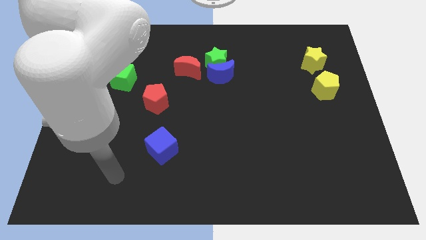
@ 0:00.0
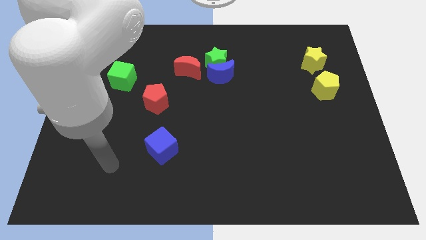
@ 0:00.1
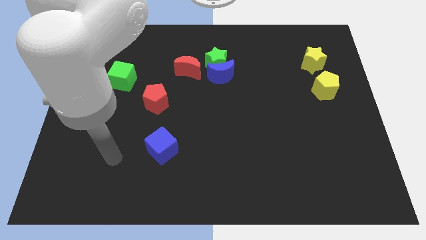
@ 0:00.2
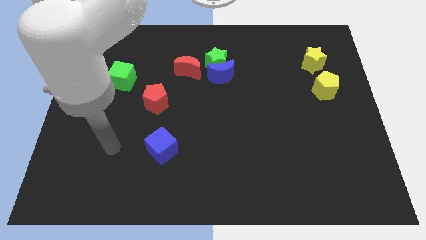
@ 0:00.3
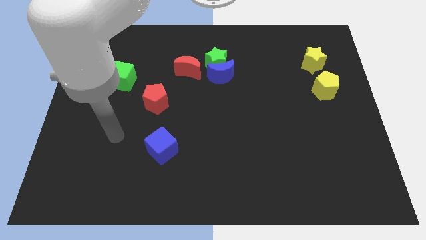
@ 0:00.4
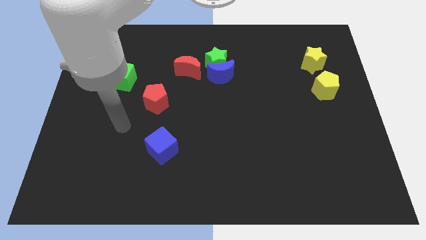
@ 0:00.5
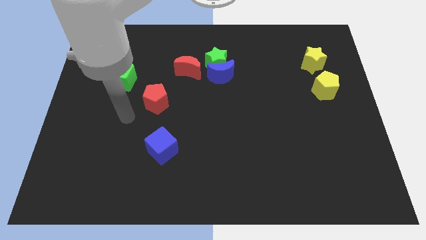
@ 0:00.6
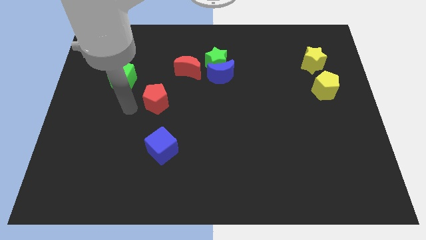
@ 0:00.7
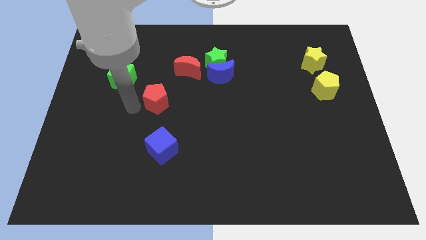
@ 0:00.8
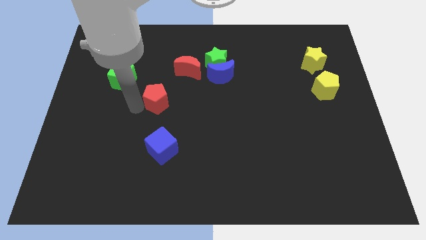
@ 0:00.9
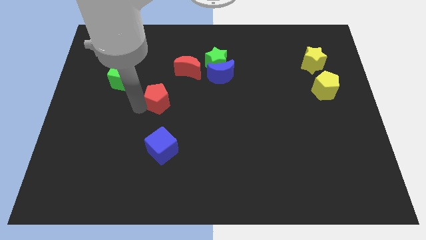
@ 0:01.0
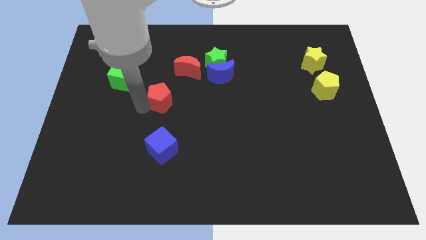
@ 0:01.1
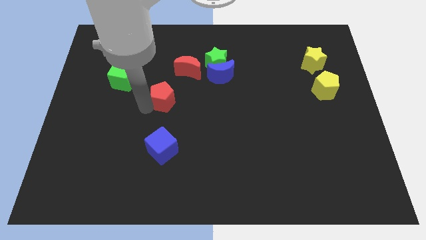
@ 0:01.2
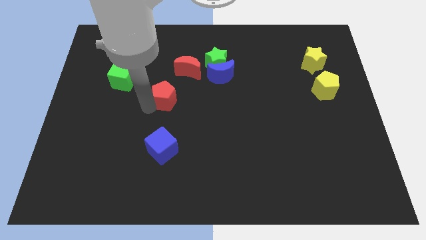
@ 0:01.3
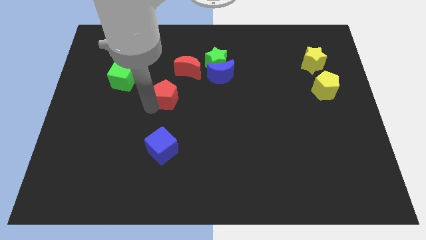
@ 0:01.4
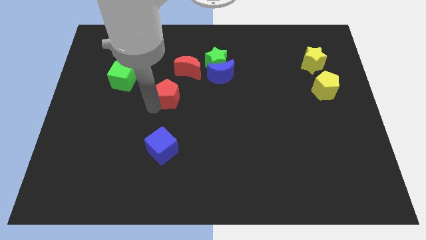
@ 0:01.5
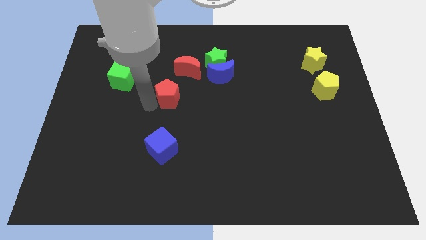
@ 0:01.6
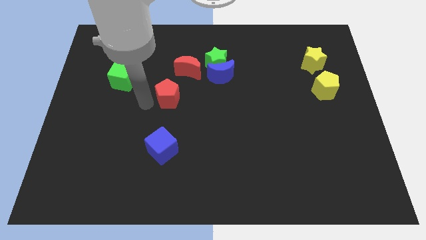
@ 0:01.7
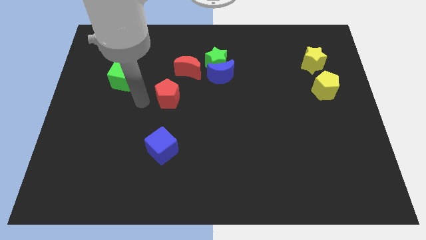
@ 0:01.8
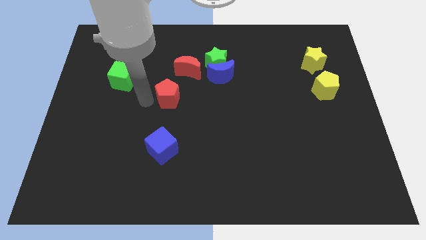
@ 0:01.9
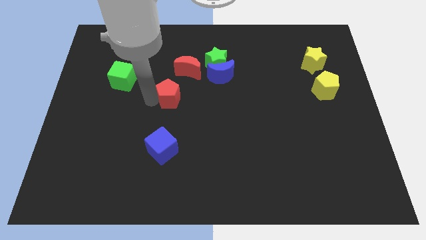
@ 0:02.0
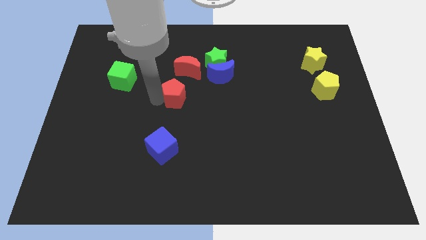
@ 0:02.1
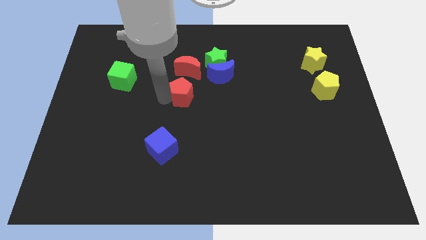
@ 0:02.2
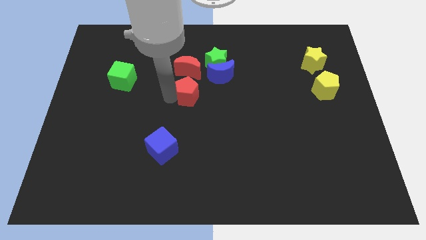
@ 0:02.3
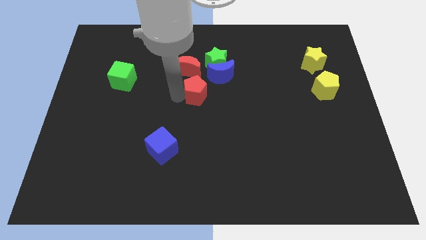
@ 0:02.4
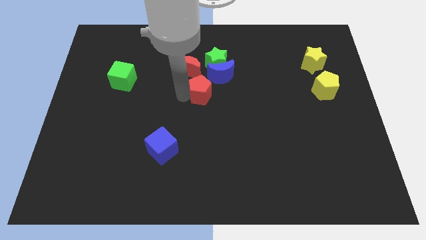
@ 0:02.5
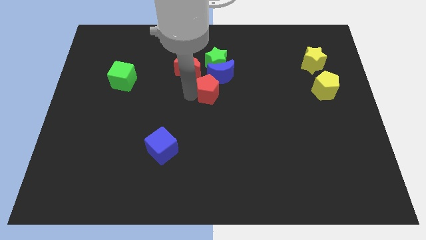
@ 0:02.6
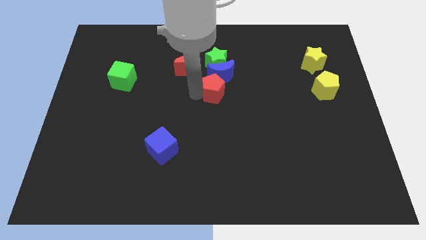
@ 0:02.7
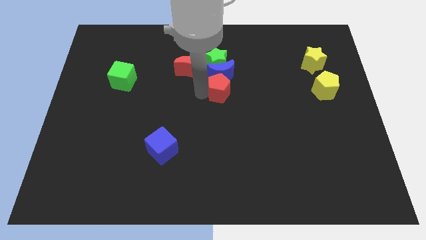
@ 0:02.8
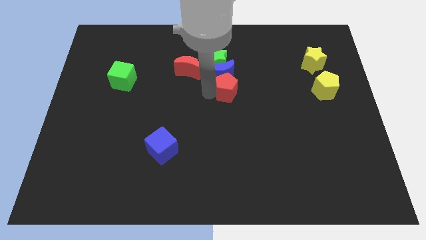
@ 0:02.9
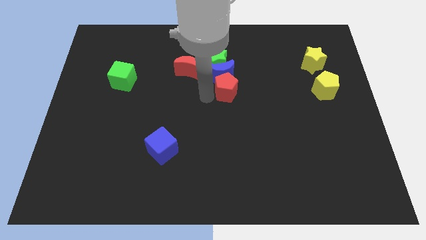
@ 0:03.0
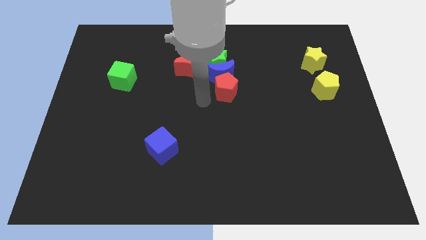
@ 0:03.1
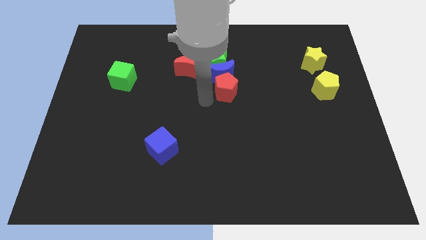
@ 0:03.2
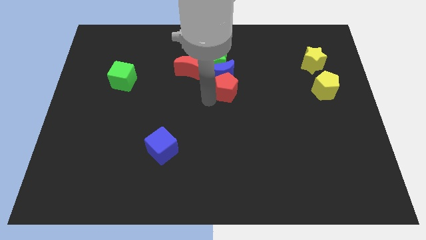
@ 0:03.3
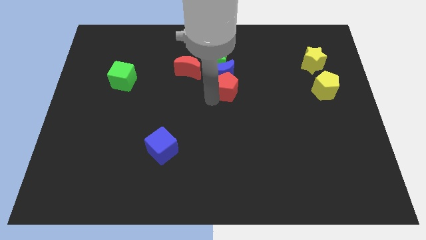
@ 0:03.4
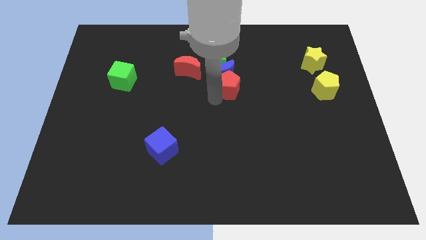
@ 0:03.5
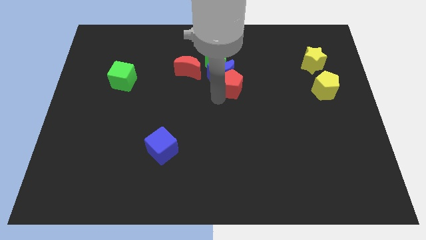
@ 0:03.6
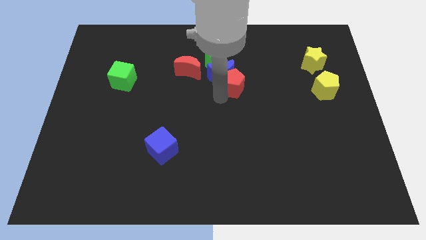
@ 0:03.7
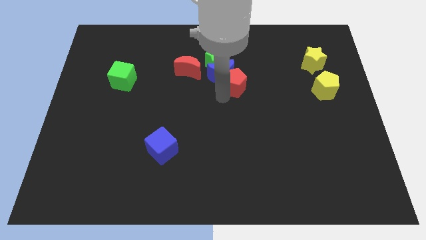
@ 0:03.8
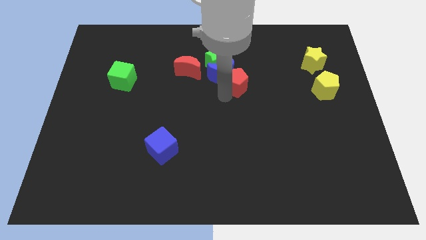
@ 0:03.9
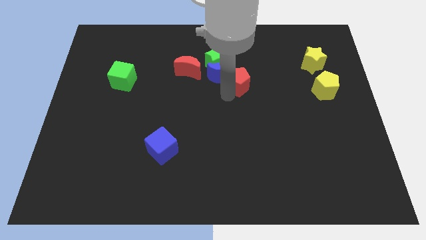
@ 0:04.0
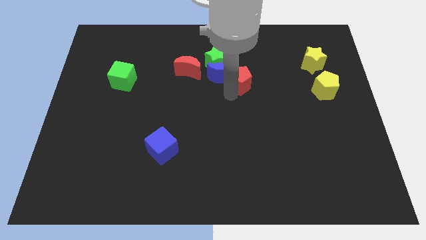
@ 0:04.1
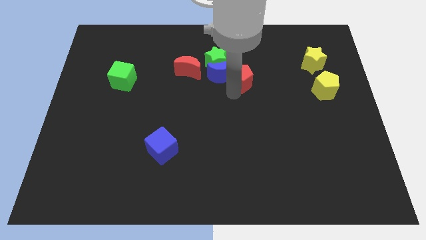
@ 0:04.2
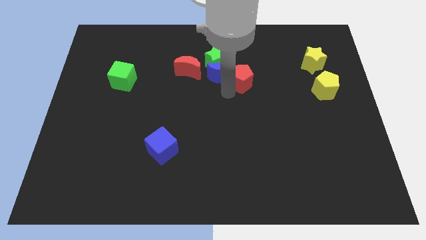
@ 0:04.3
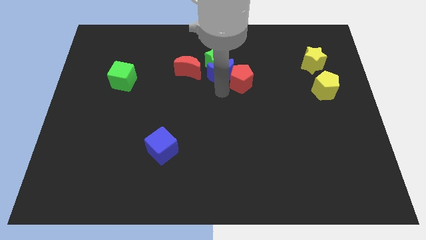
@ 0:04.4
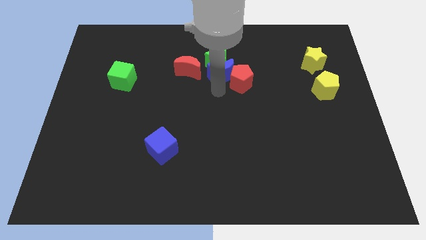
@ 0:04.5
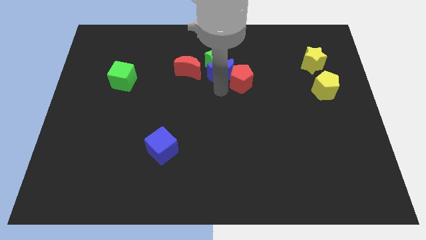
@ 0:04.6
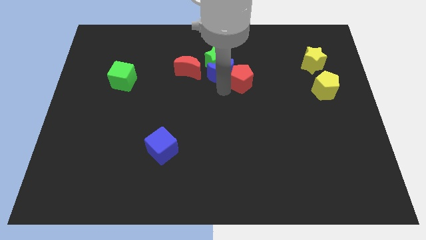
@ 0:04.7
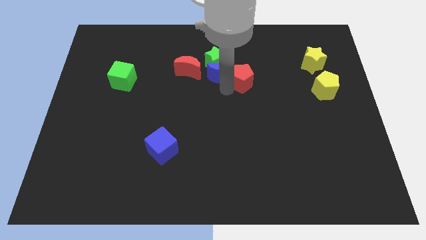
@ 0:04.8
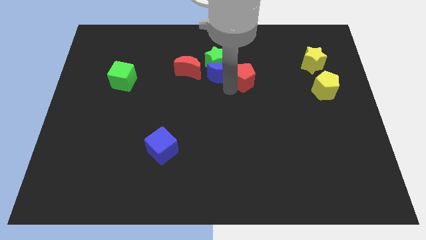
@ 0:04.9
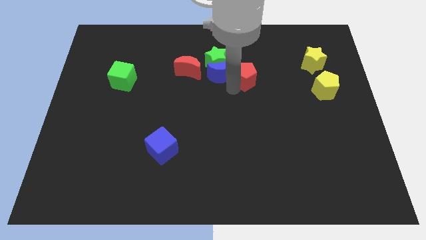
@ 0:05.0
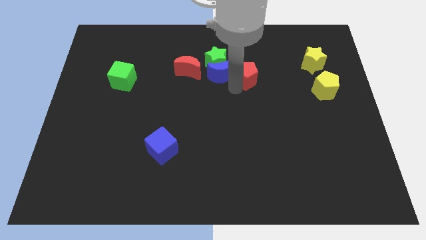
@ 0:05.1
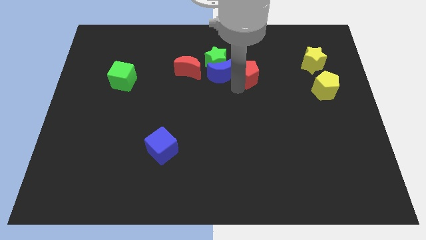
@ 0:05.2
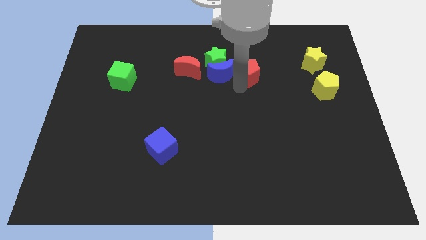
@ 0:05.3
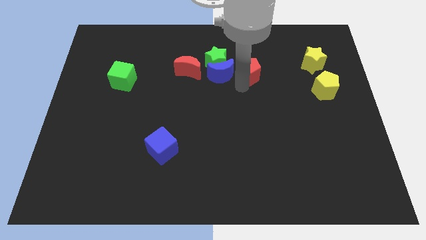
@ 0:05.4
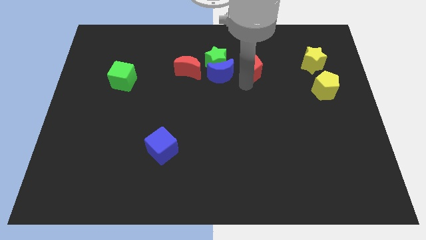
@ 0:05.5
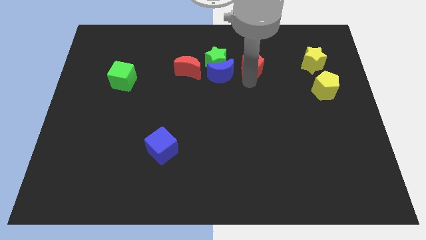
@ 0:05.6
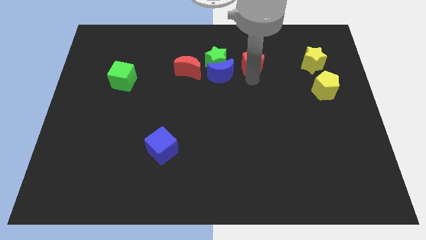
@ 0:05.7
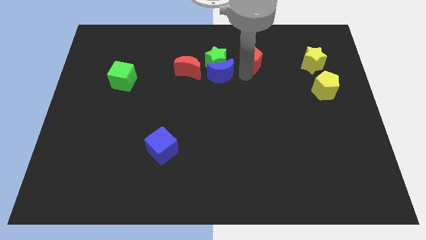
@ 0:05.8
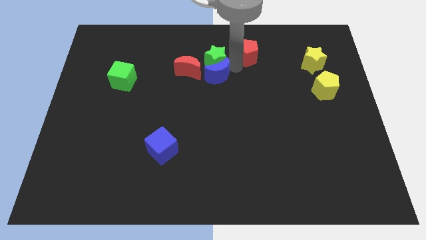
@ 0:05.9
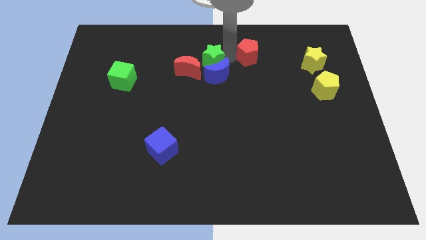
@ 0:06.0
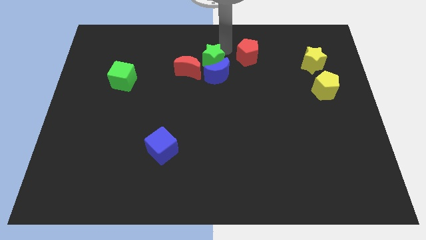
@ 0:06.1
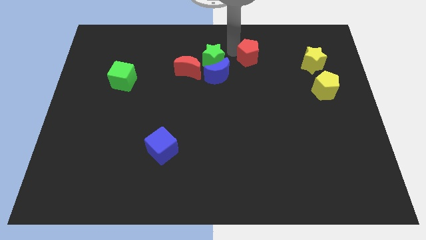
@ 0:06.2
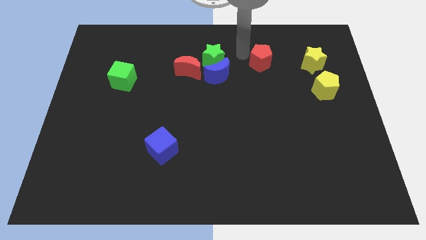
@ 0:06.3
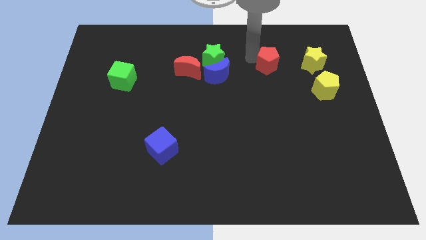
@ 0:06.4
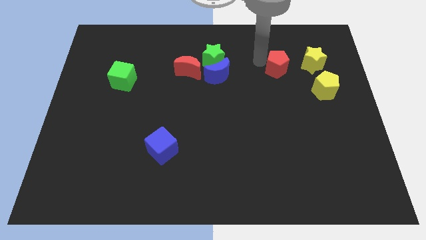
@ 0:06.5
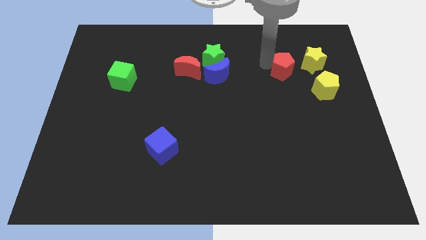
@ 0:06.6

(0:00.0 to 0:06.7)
push the red pentagon diagonally up and to the left of the yellow pentagon
